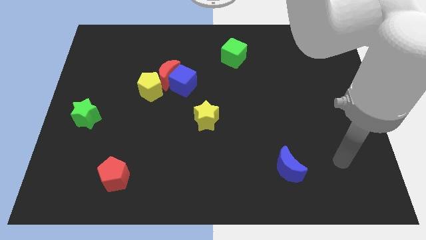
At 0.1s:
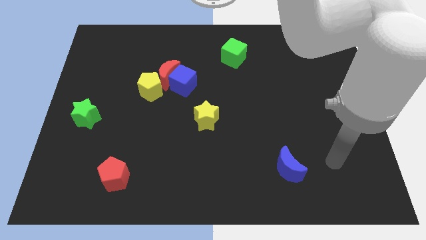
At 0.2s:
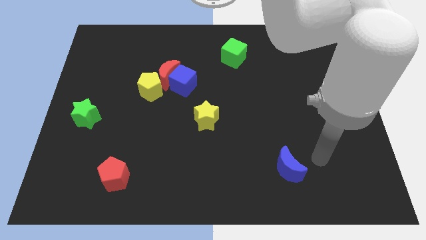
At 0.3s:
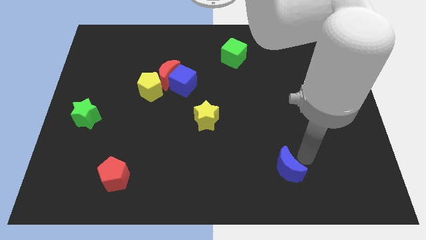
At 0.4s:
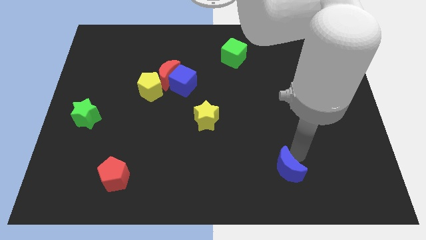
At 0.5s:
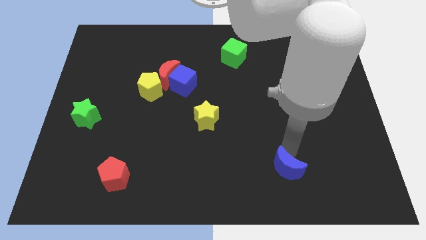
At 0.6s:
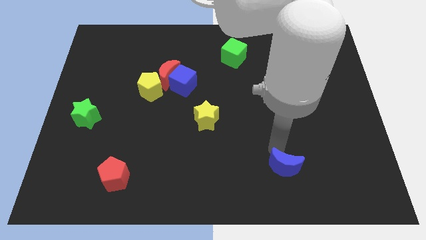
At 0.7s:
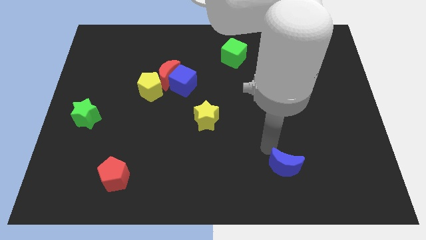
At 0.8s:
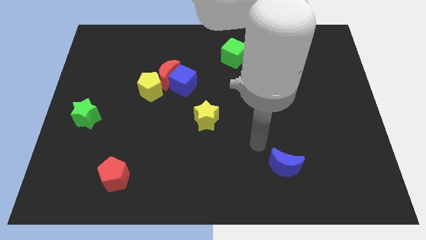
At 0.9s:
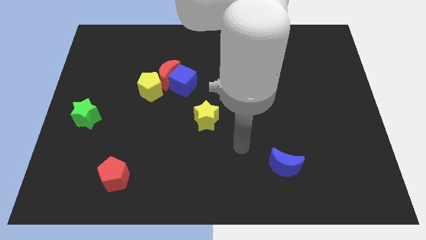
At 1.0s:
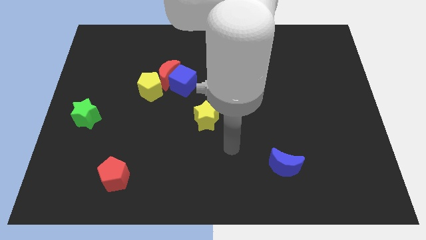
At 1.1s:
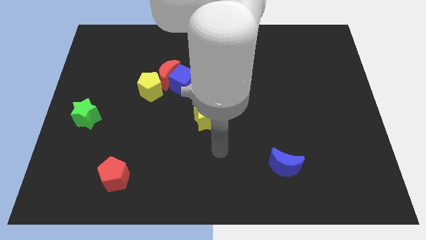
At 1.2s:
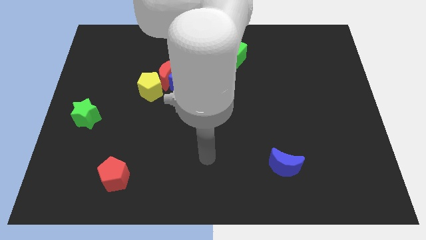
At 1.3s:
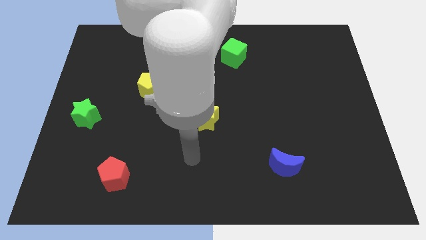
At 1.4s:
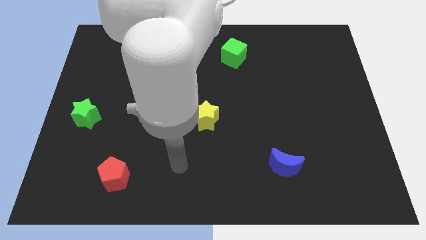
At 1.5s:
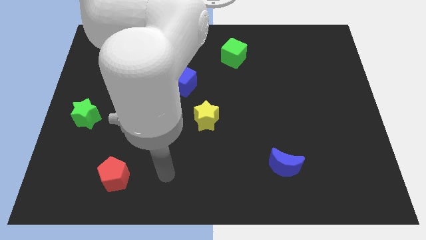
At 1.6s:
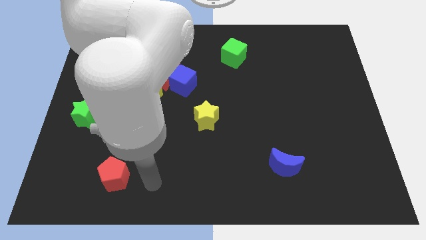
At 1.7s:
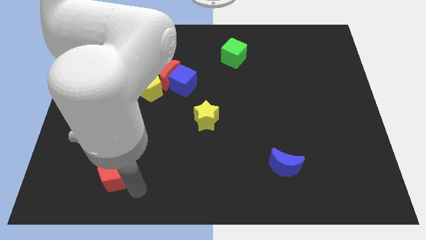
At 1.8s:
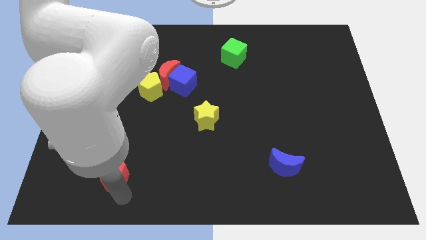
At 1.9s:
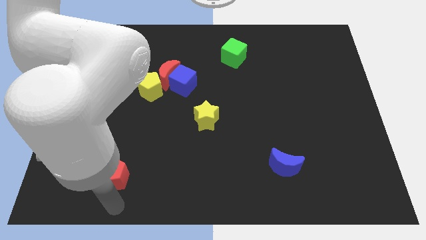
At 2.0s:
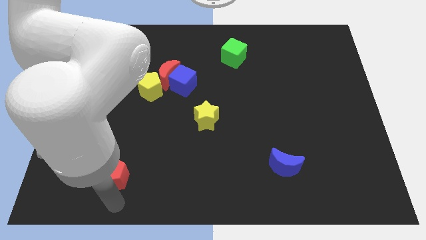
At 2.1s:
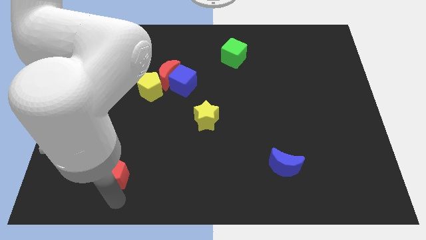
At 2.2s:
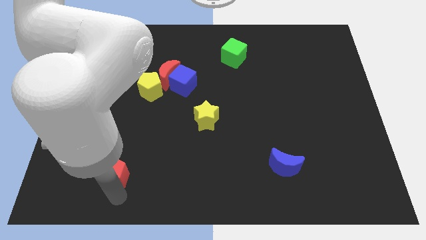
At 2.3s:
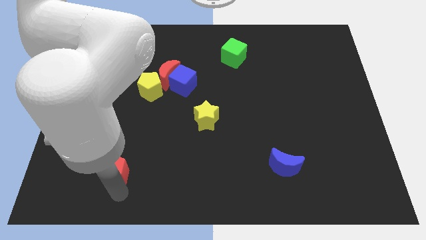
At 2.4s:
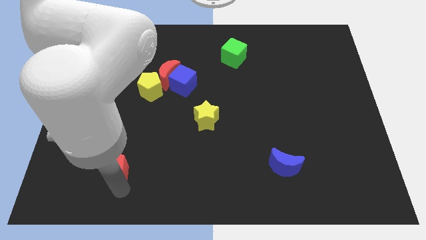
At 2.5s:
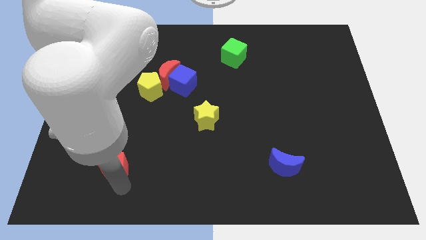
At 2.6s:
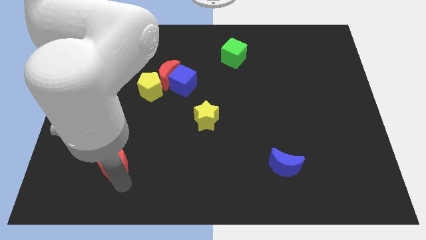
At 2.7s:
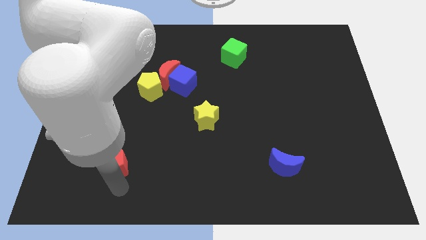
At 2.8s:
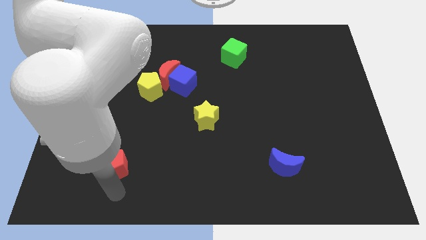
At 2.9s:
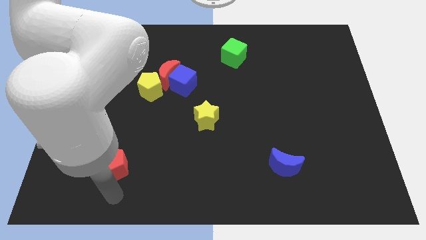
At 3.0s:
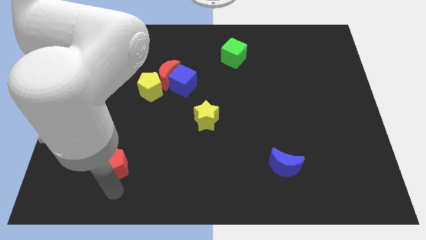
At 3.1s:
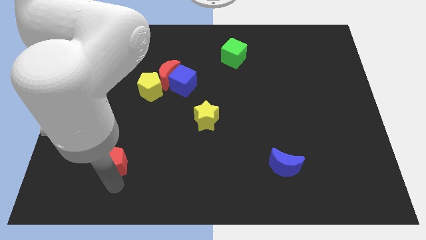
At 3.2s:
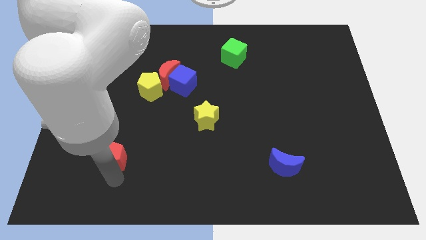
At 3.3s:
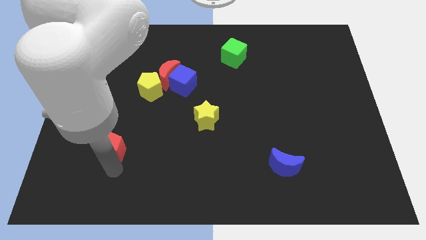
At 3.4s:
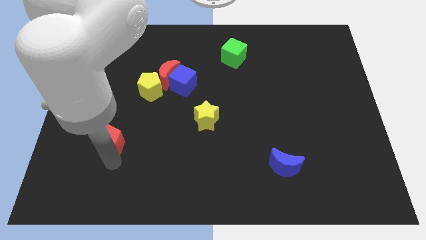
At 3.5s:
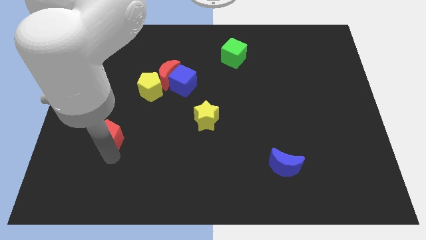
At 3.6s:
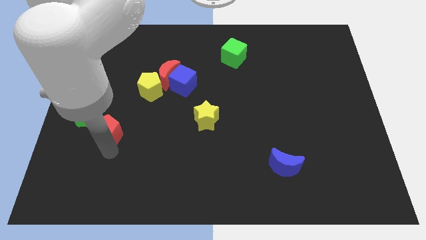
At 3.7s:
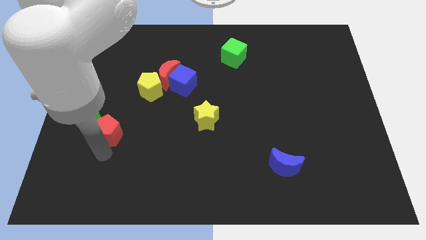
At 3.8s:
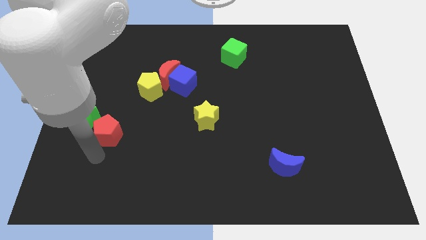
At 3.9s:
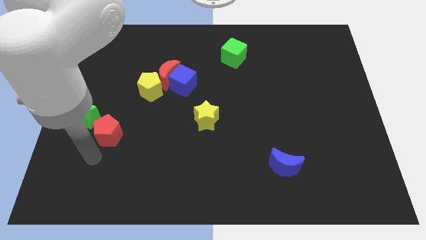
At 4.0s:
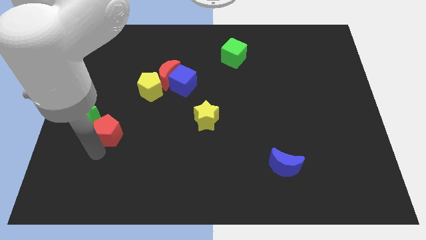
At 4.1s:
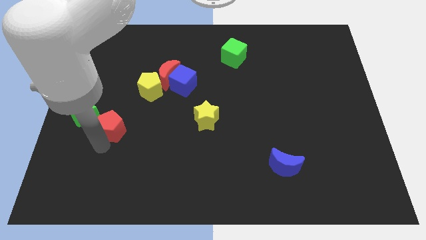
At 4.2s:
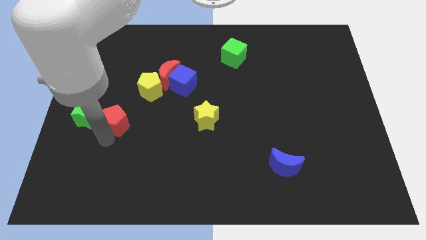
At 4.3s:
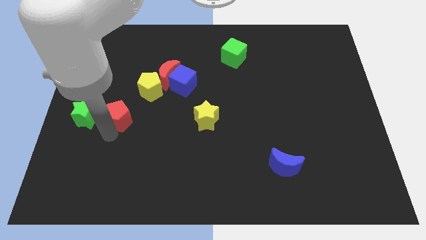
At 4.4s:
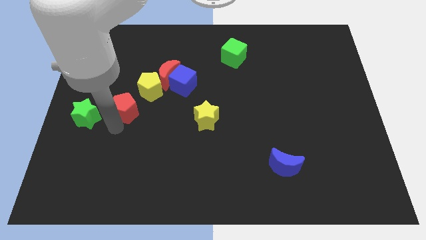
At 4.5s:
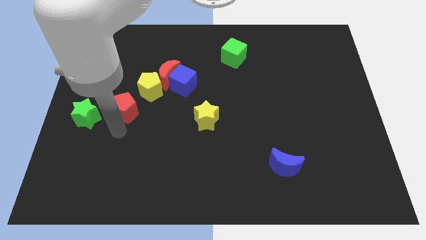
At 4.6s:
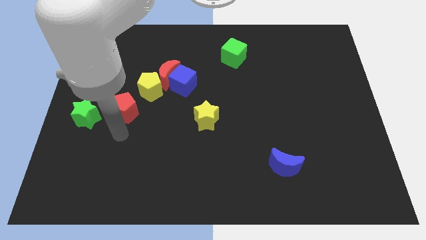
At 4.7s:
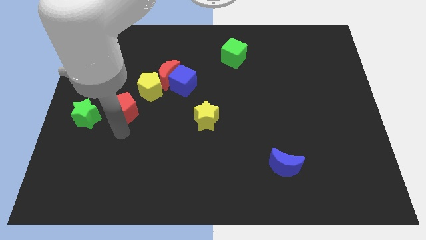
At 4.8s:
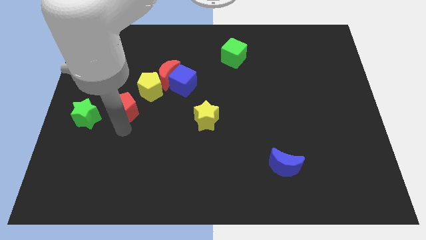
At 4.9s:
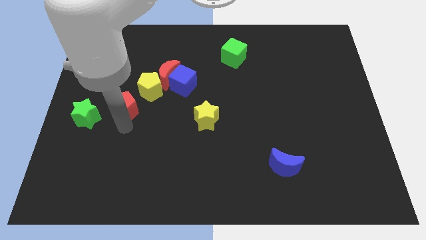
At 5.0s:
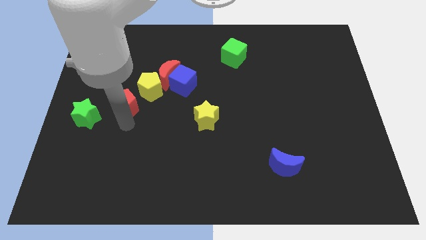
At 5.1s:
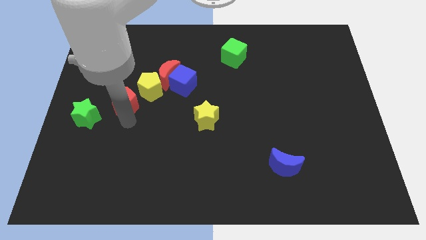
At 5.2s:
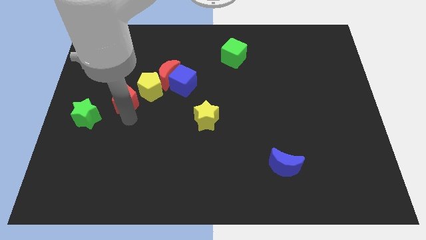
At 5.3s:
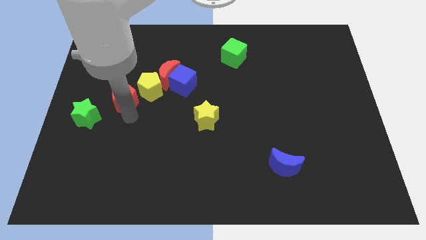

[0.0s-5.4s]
move the red pentagon upwards

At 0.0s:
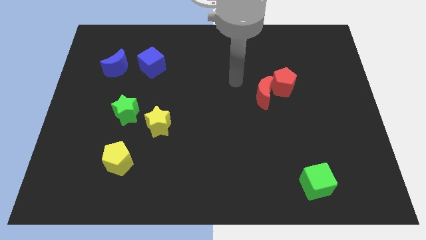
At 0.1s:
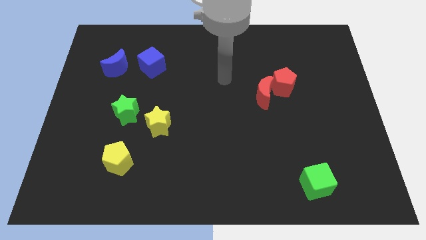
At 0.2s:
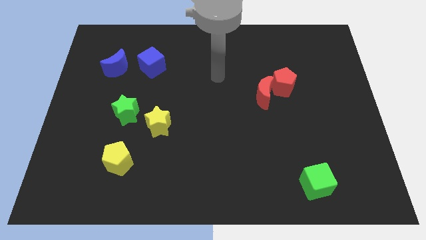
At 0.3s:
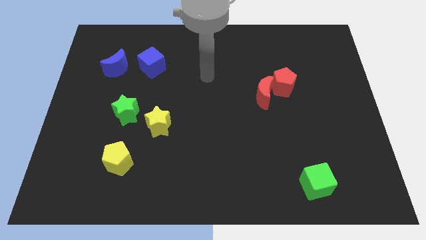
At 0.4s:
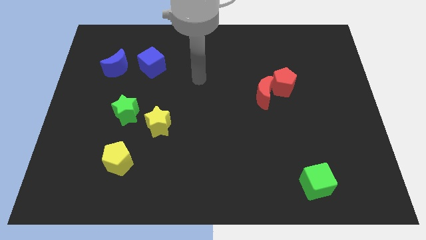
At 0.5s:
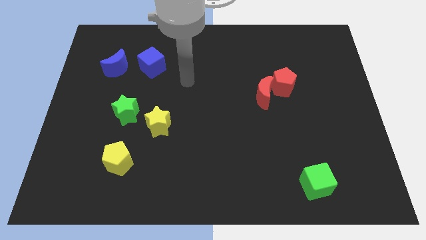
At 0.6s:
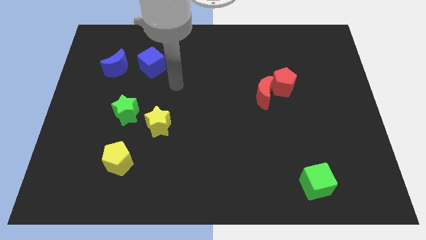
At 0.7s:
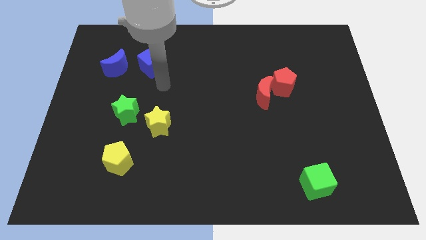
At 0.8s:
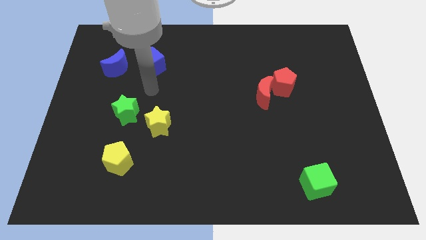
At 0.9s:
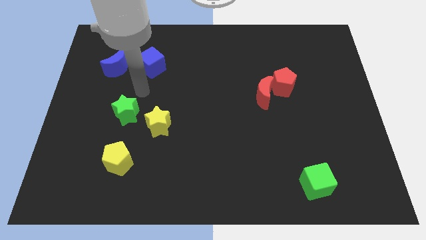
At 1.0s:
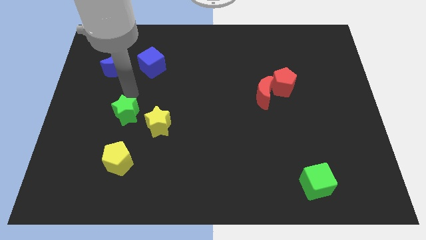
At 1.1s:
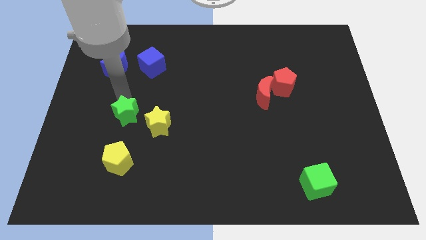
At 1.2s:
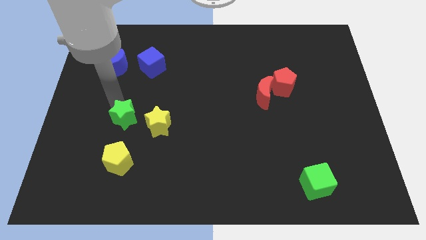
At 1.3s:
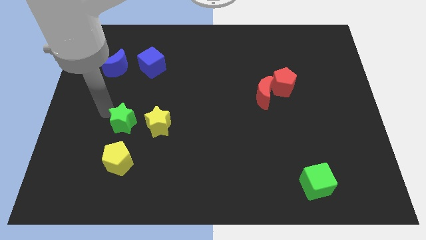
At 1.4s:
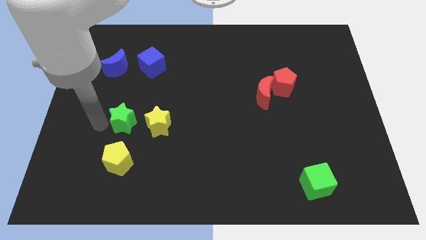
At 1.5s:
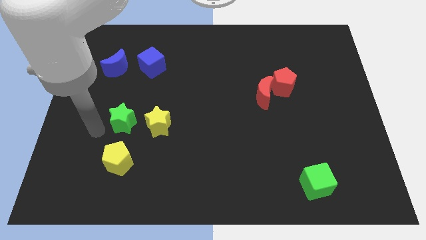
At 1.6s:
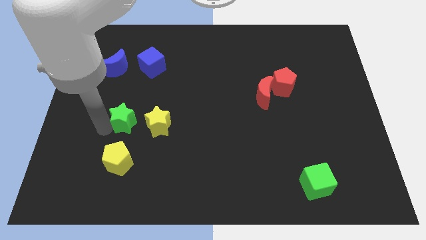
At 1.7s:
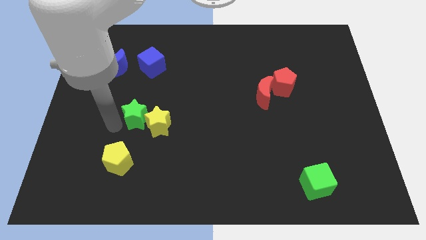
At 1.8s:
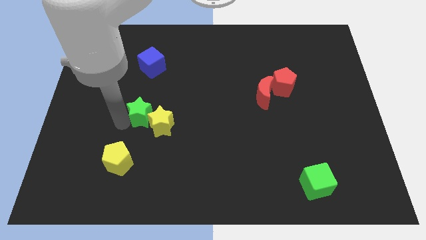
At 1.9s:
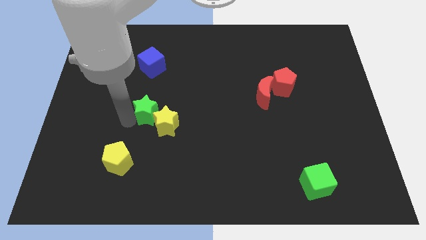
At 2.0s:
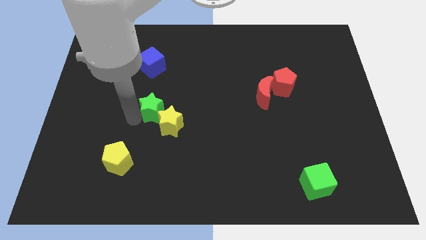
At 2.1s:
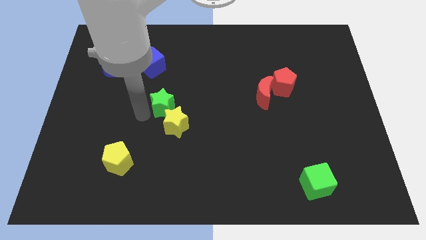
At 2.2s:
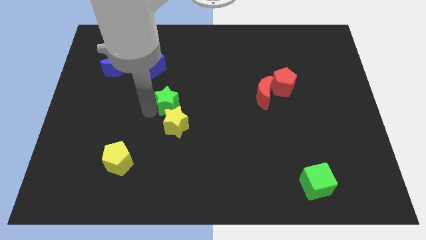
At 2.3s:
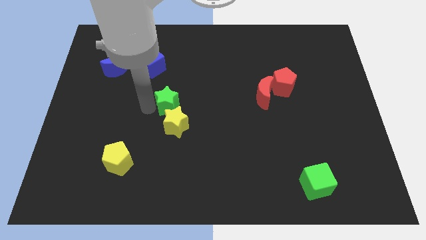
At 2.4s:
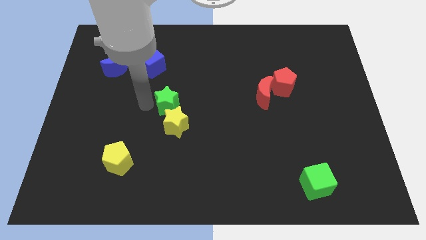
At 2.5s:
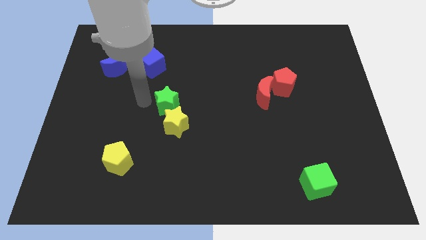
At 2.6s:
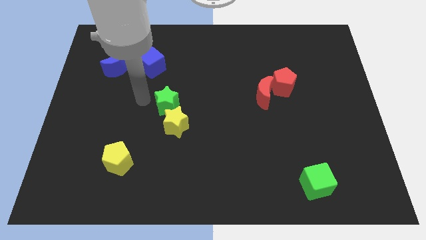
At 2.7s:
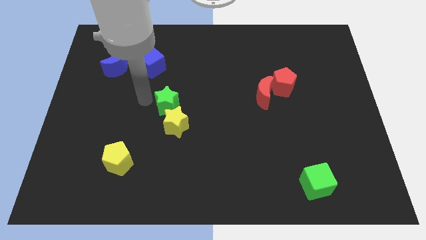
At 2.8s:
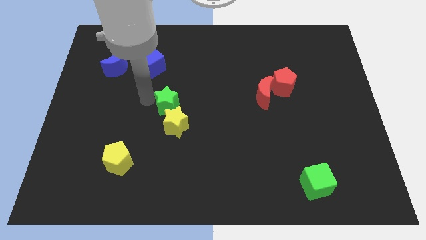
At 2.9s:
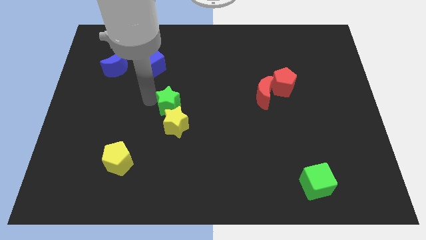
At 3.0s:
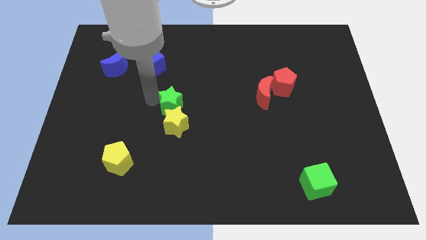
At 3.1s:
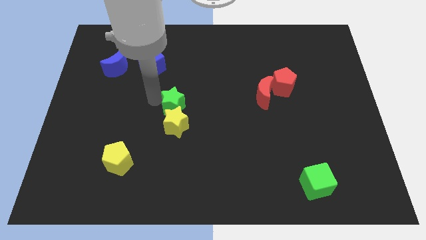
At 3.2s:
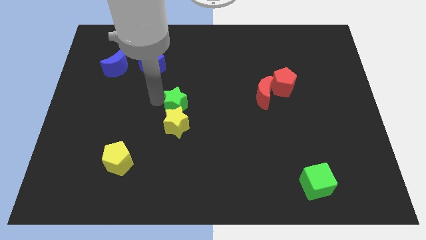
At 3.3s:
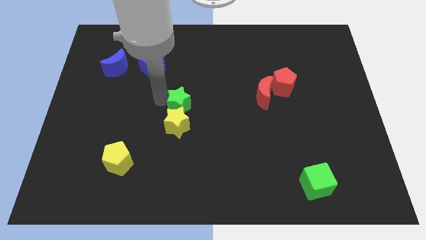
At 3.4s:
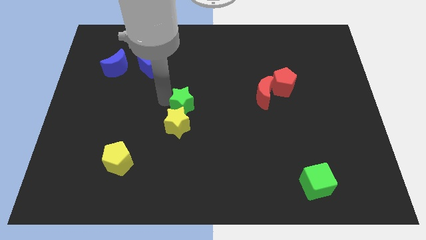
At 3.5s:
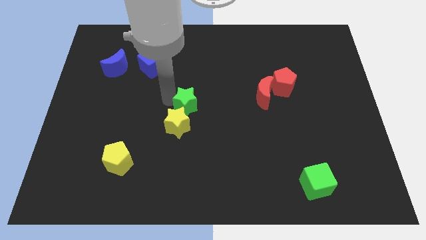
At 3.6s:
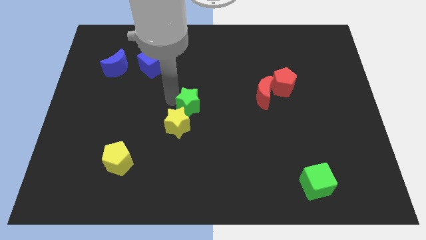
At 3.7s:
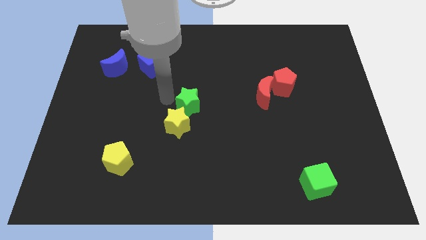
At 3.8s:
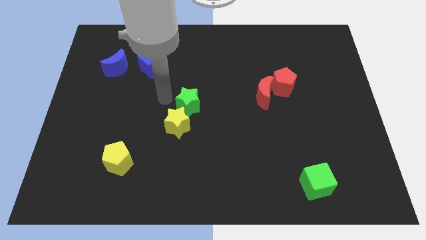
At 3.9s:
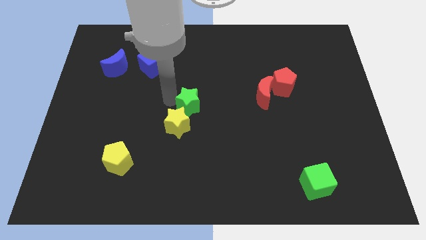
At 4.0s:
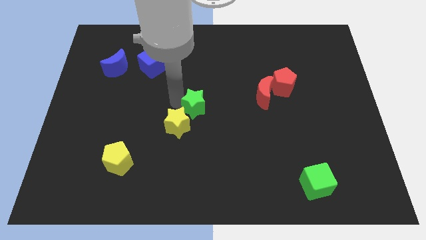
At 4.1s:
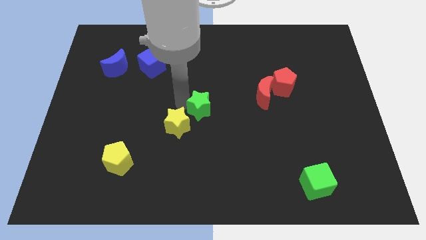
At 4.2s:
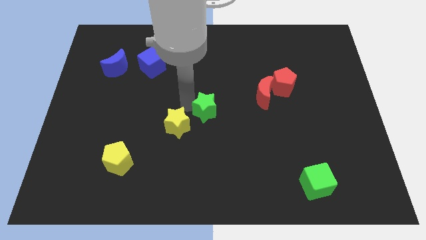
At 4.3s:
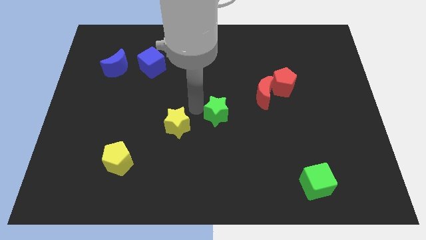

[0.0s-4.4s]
slide the green star right
